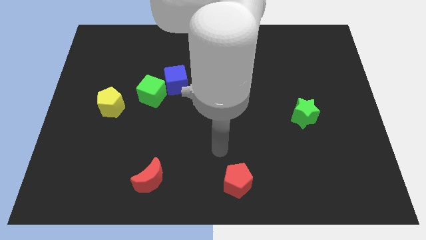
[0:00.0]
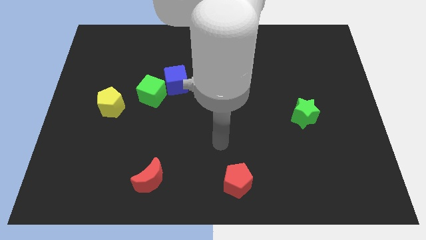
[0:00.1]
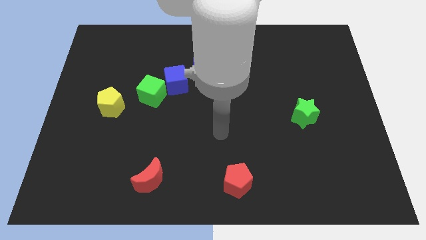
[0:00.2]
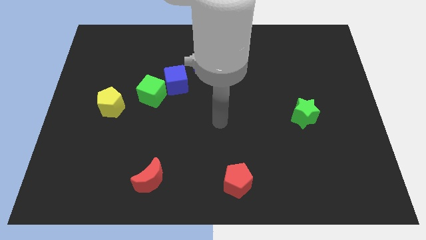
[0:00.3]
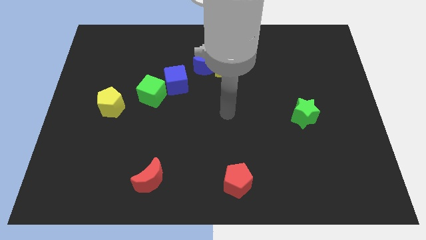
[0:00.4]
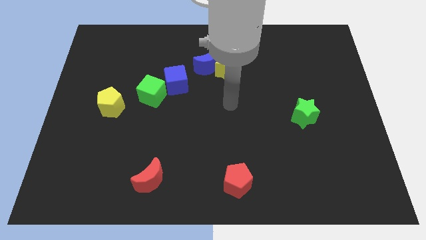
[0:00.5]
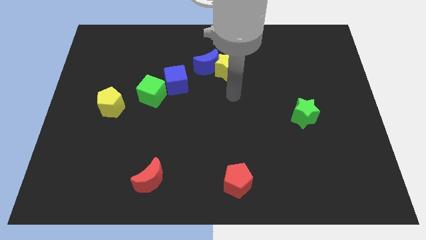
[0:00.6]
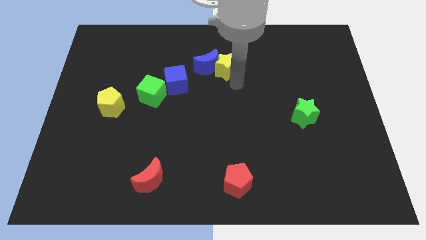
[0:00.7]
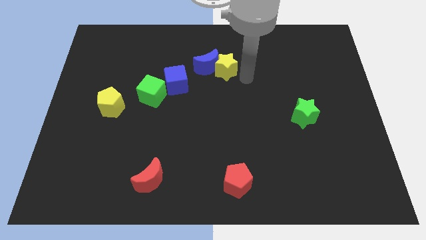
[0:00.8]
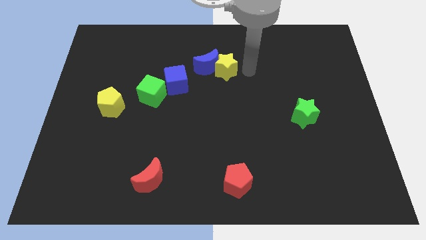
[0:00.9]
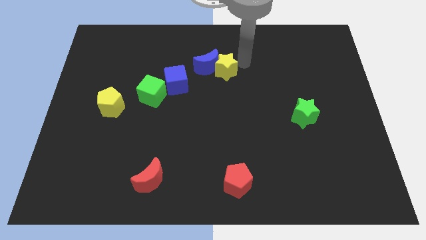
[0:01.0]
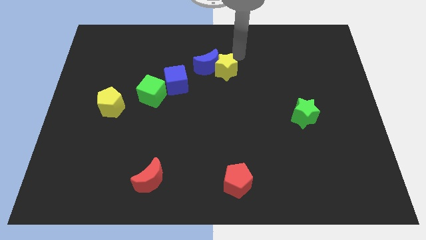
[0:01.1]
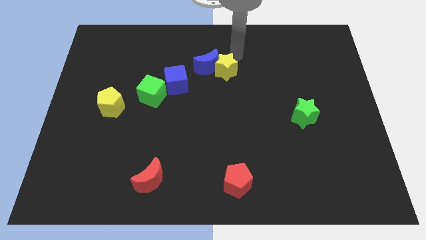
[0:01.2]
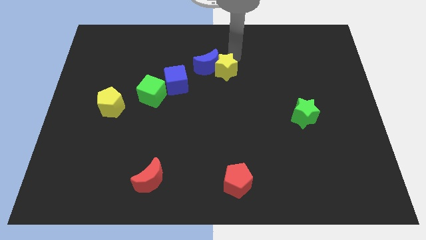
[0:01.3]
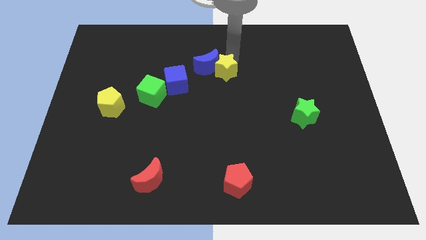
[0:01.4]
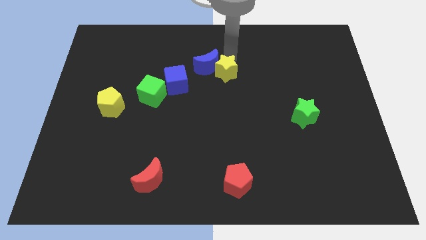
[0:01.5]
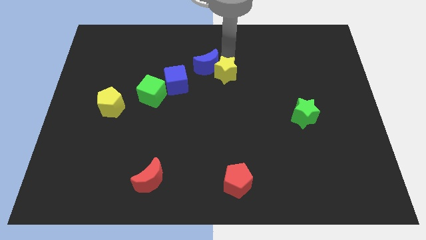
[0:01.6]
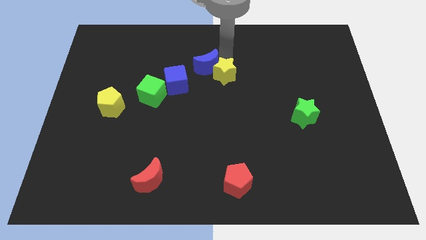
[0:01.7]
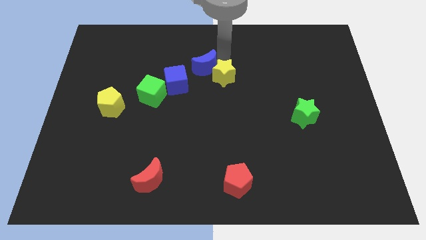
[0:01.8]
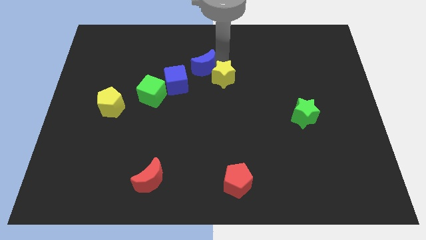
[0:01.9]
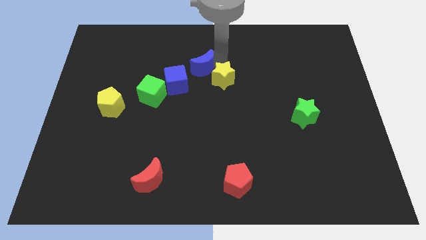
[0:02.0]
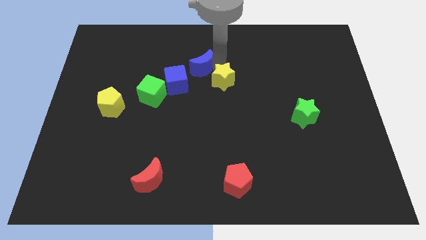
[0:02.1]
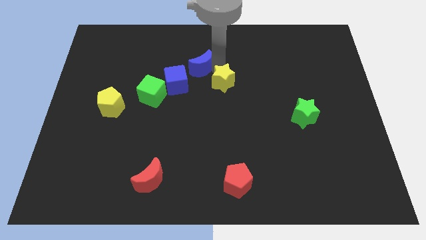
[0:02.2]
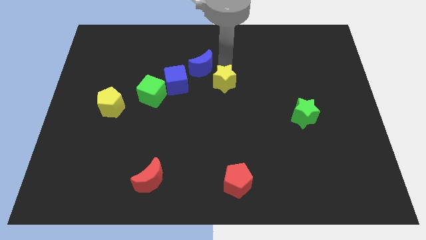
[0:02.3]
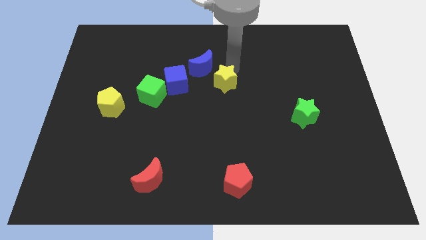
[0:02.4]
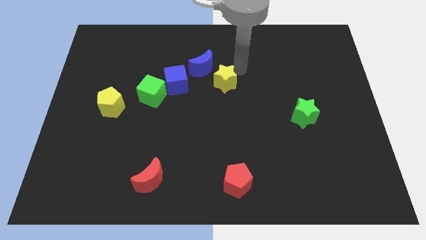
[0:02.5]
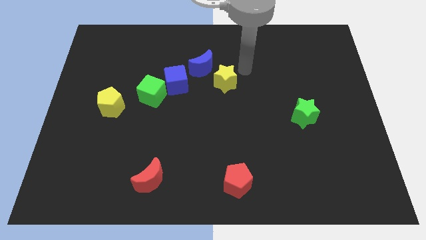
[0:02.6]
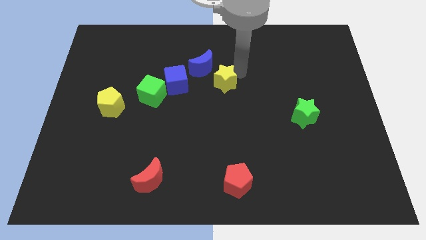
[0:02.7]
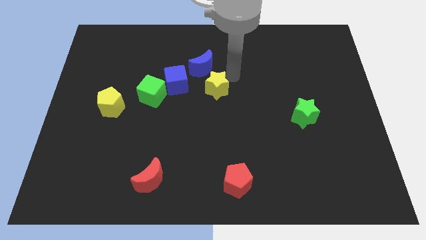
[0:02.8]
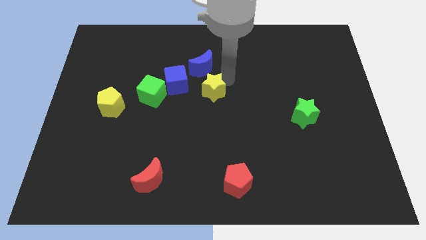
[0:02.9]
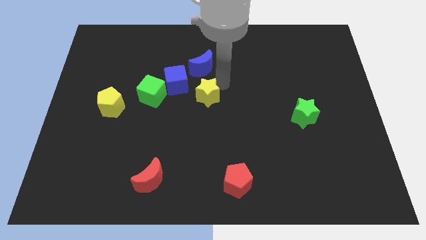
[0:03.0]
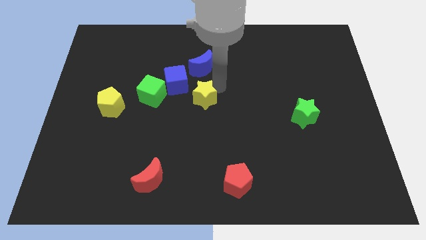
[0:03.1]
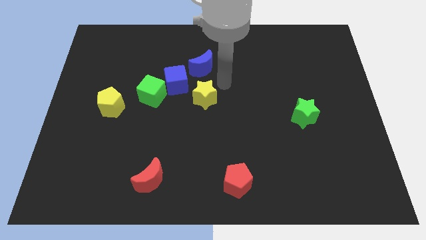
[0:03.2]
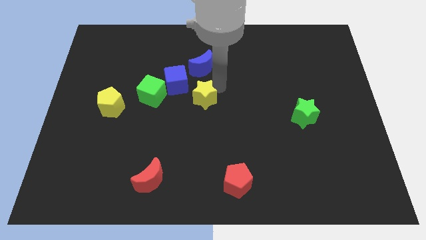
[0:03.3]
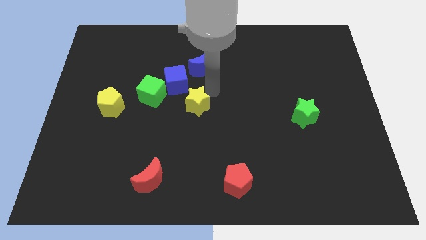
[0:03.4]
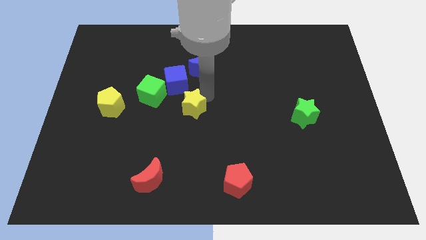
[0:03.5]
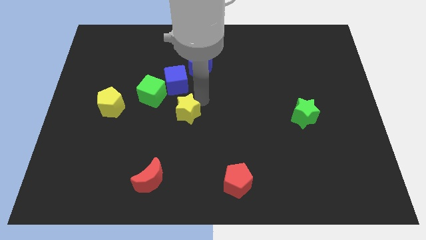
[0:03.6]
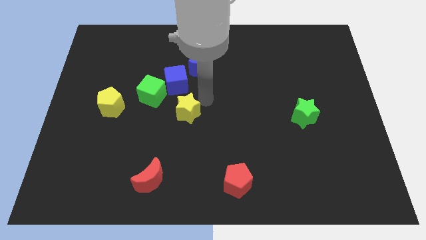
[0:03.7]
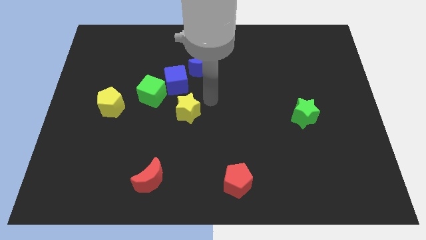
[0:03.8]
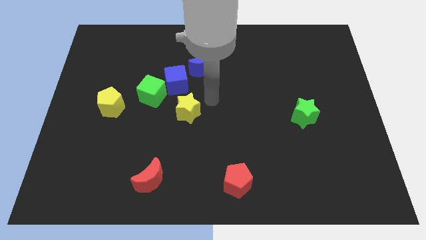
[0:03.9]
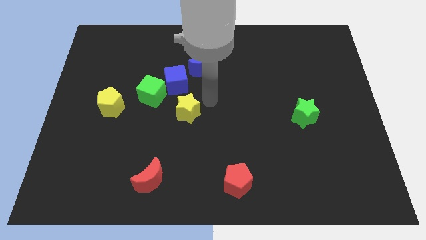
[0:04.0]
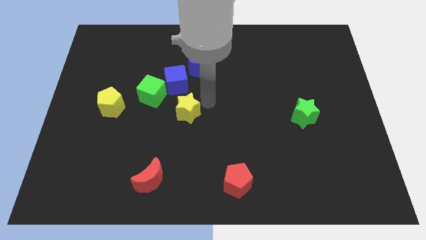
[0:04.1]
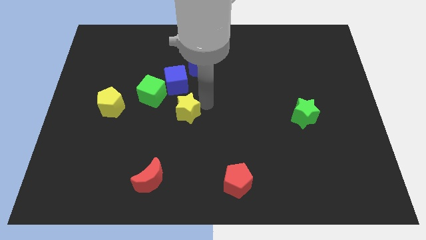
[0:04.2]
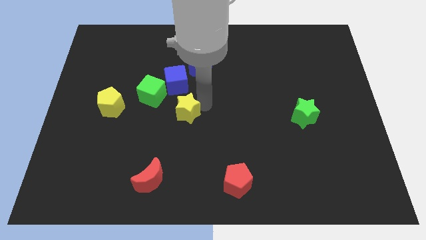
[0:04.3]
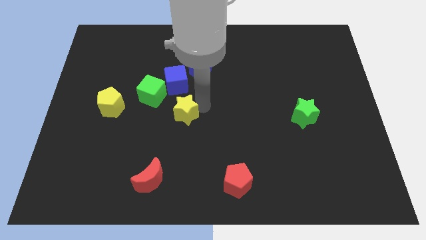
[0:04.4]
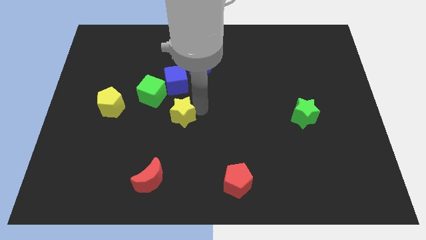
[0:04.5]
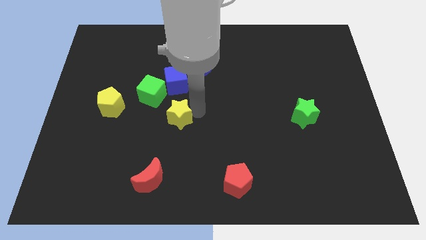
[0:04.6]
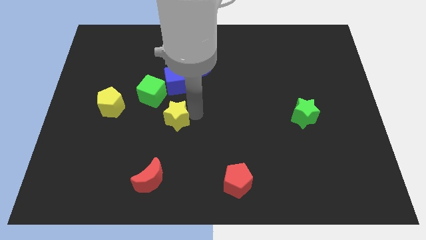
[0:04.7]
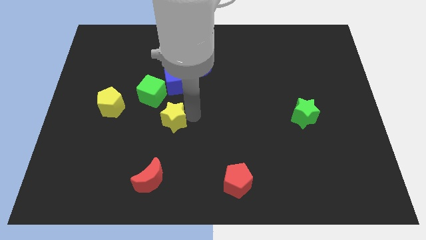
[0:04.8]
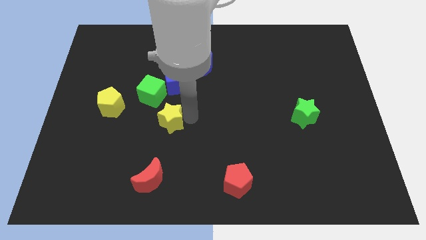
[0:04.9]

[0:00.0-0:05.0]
push the yellow star downwards and left diagonally

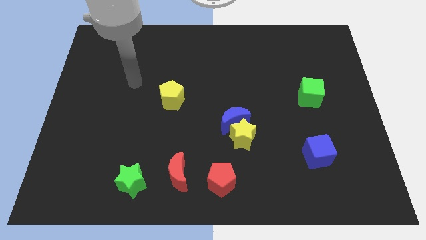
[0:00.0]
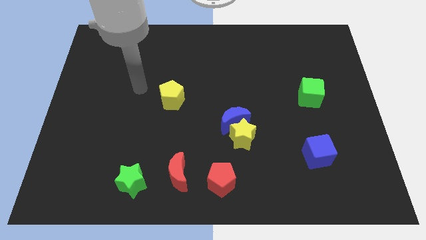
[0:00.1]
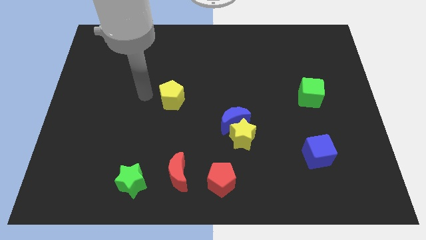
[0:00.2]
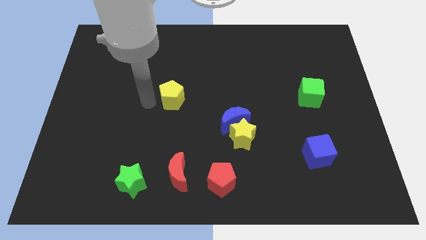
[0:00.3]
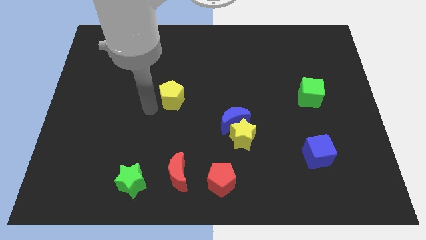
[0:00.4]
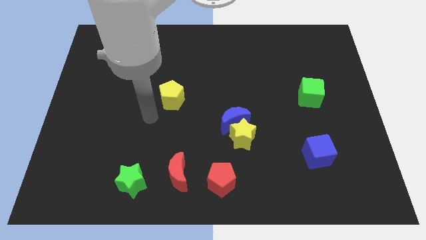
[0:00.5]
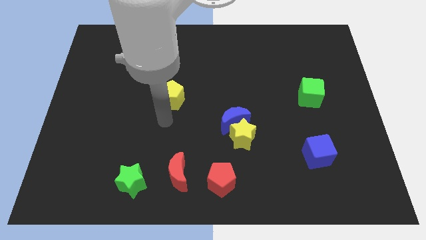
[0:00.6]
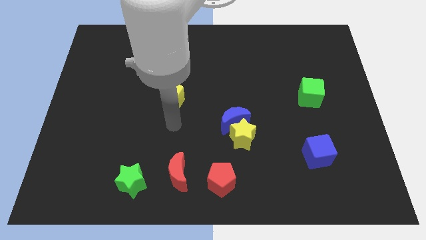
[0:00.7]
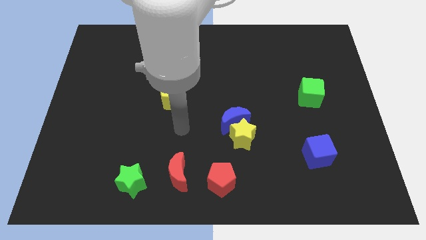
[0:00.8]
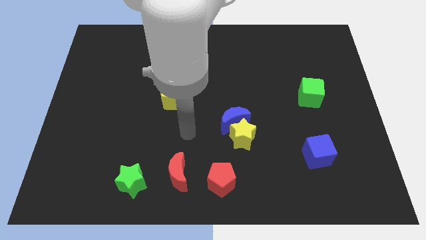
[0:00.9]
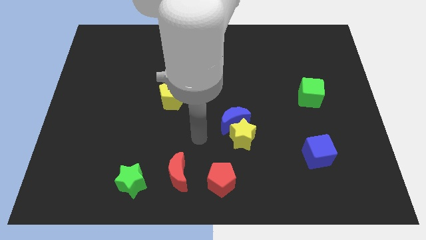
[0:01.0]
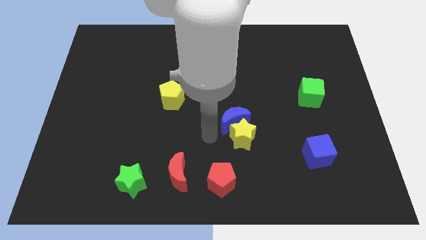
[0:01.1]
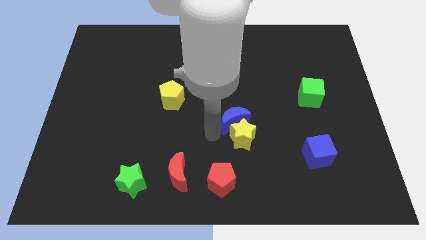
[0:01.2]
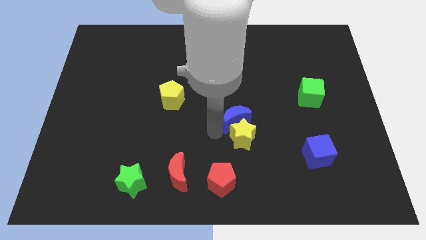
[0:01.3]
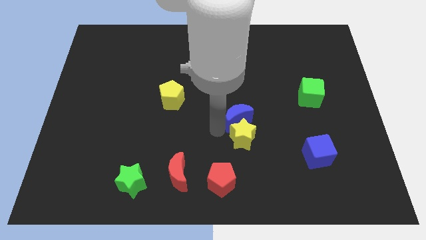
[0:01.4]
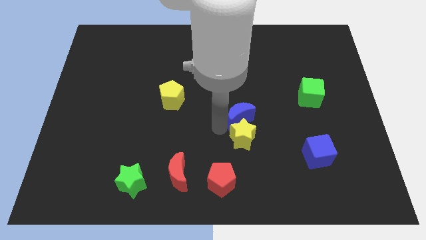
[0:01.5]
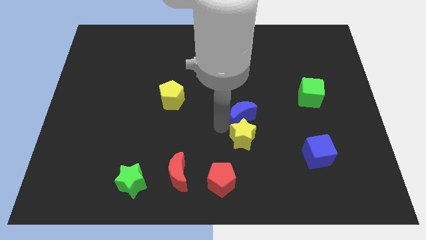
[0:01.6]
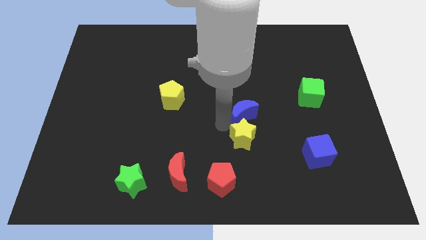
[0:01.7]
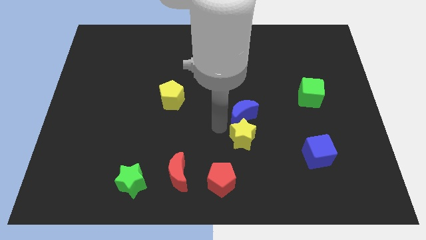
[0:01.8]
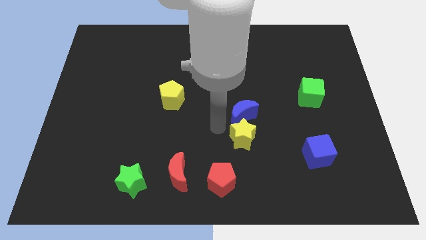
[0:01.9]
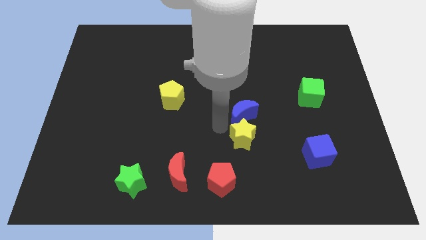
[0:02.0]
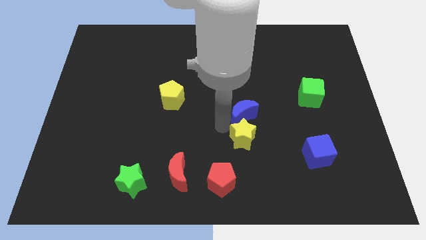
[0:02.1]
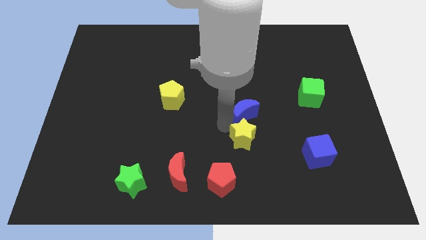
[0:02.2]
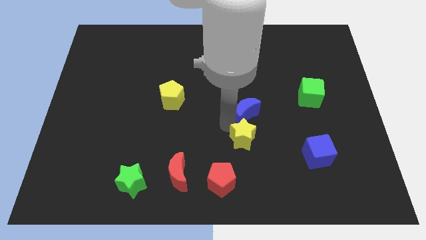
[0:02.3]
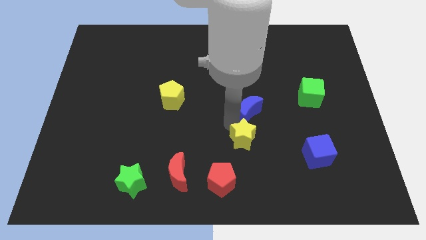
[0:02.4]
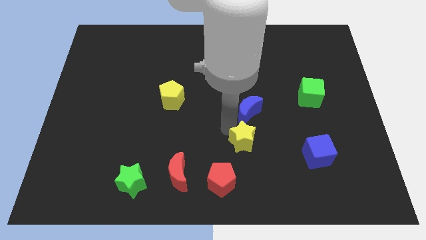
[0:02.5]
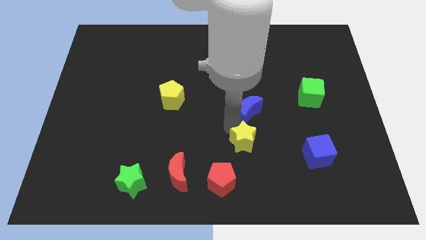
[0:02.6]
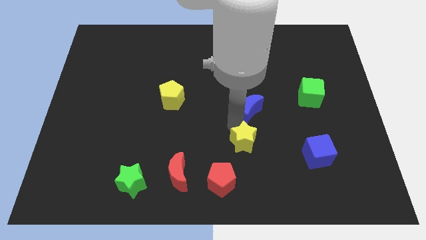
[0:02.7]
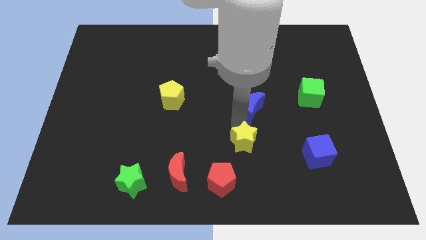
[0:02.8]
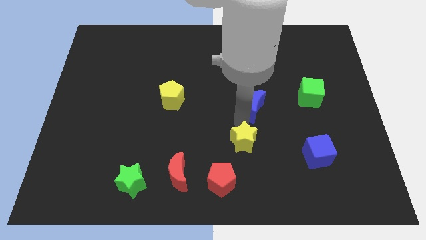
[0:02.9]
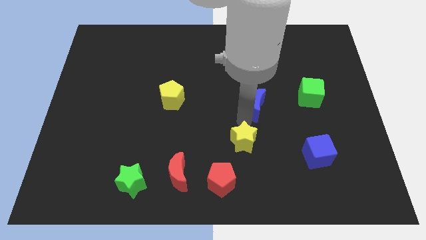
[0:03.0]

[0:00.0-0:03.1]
move the blue moon a little bit diagonally upwards and right
